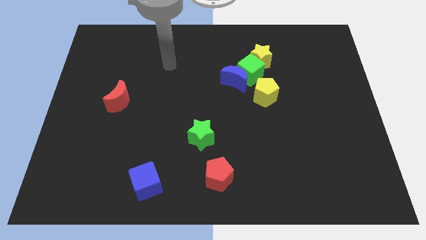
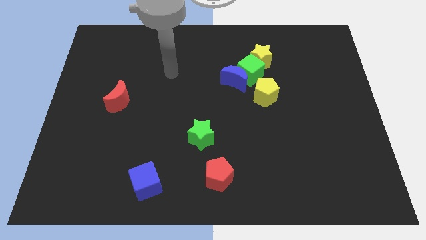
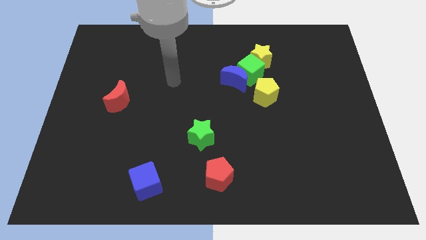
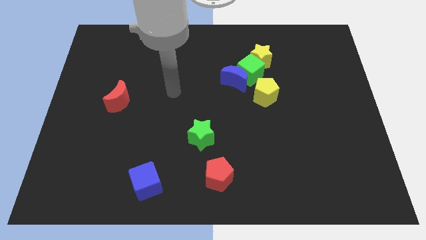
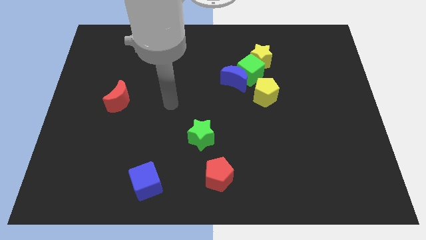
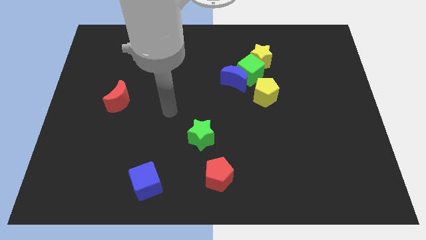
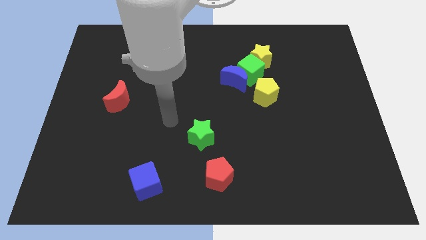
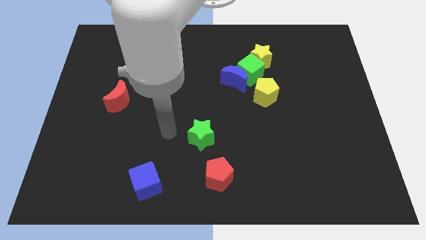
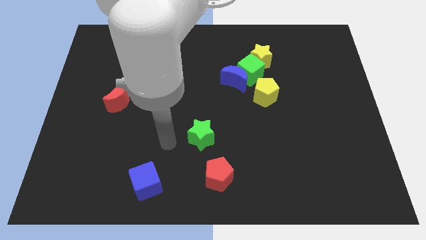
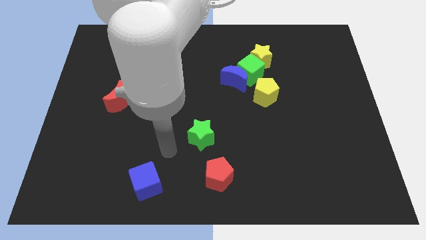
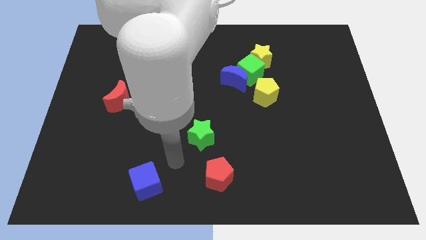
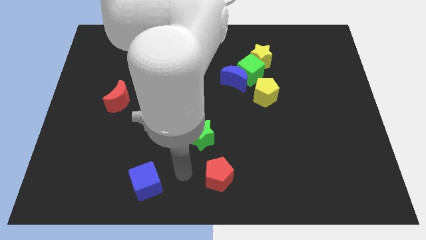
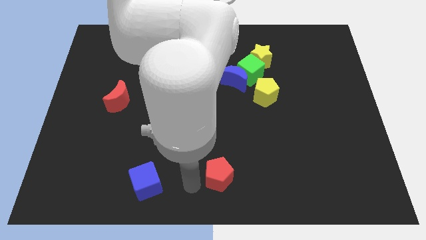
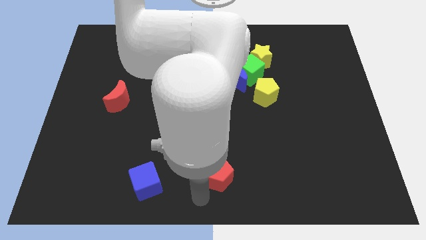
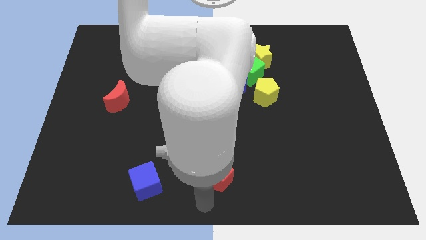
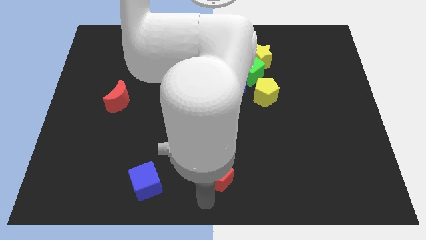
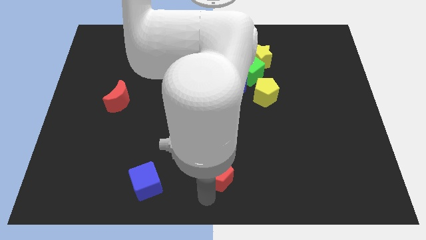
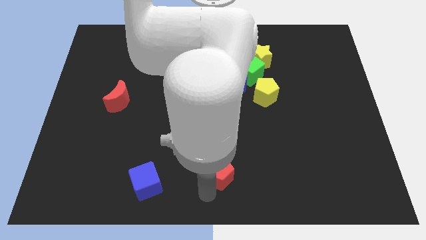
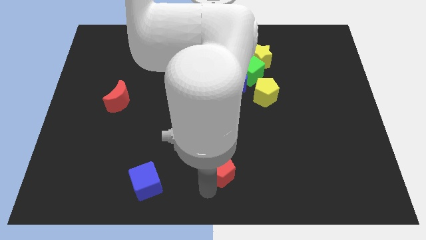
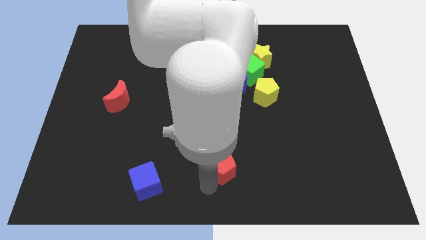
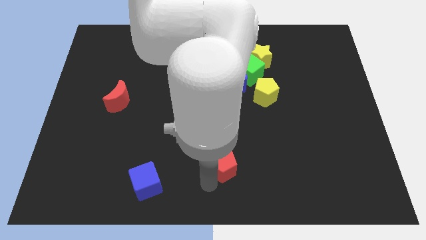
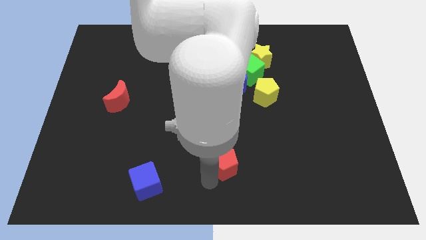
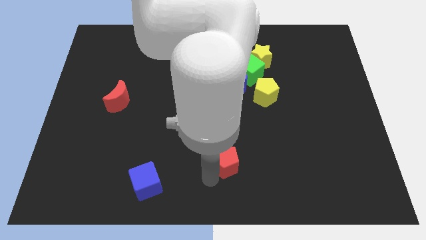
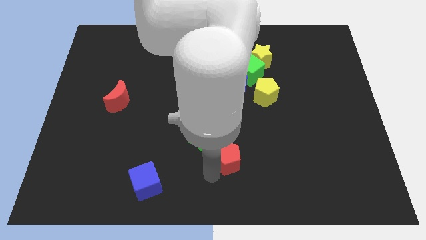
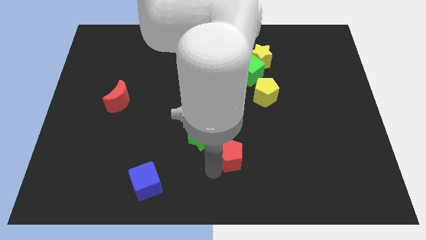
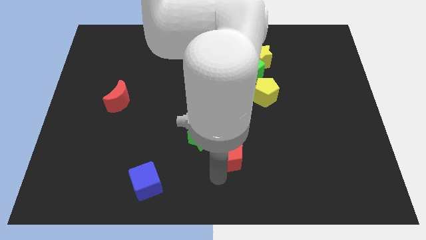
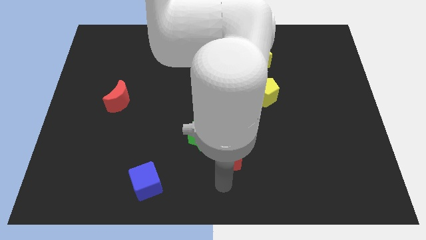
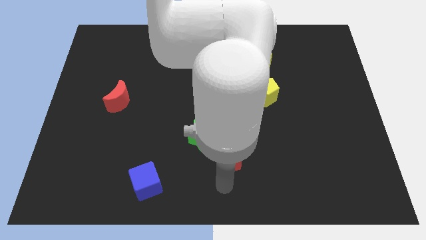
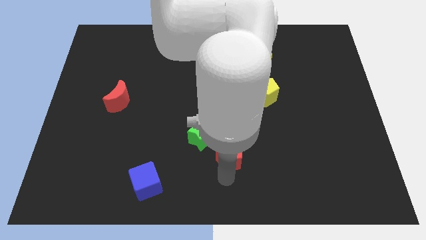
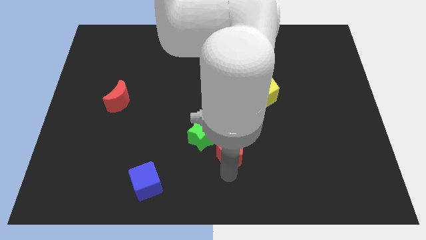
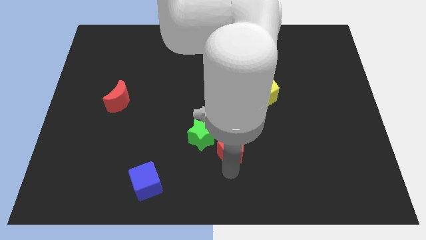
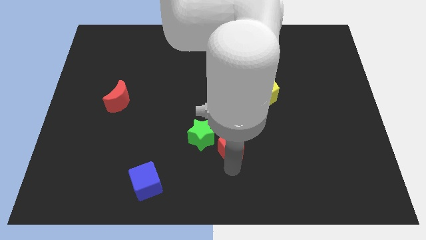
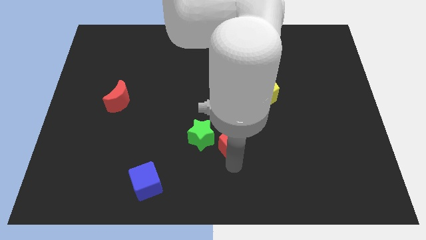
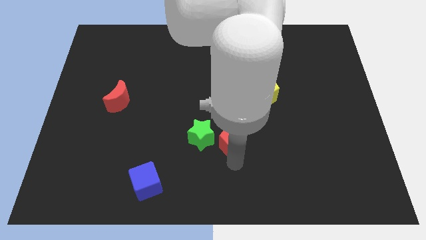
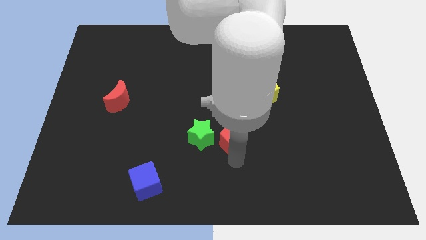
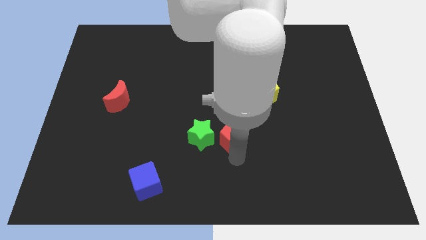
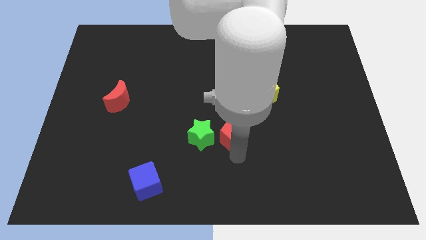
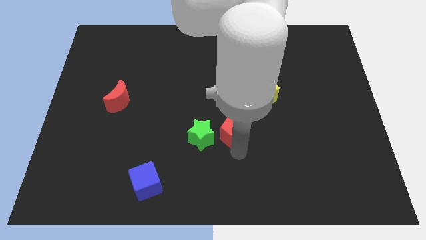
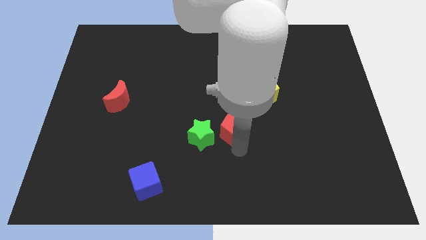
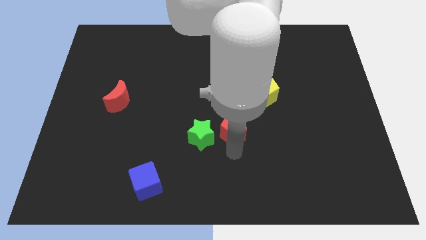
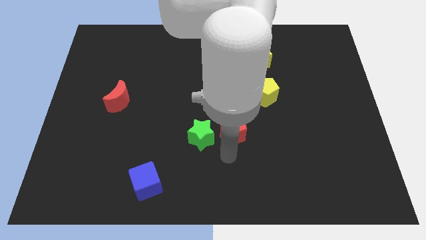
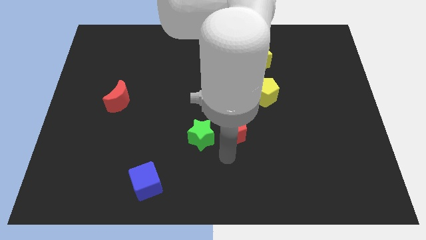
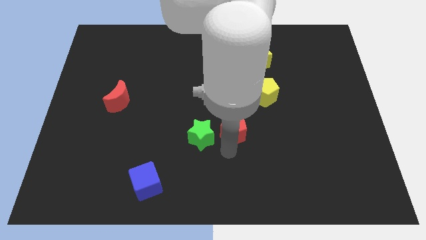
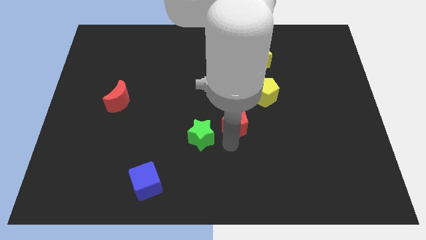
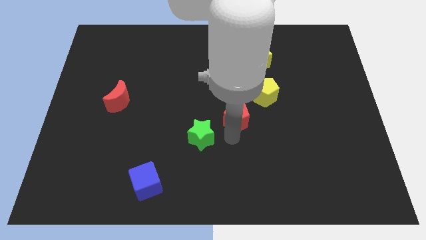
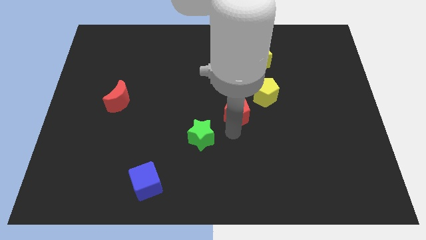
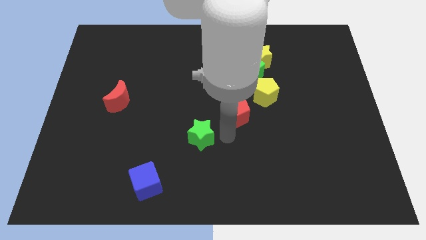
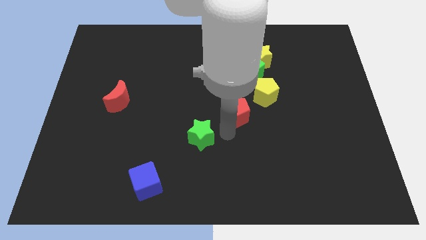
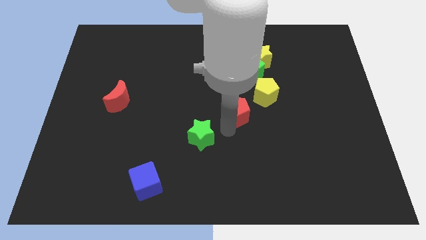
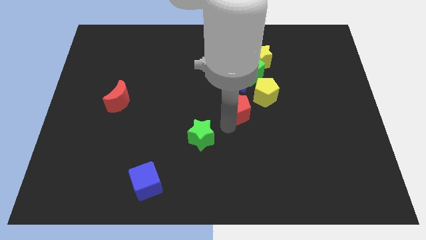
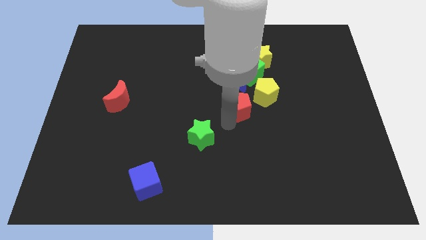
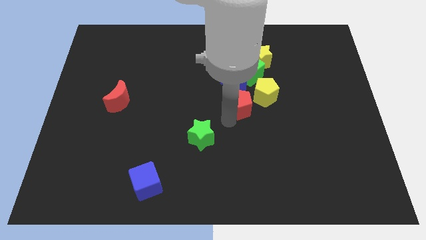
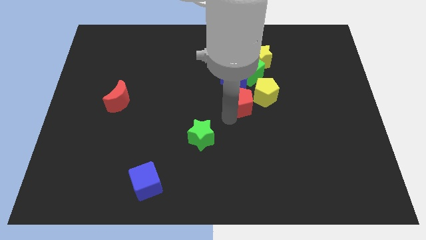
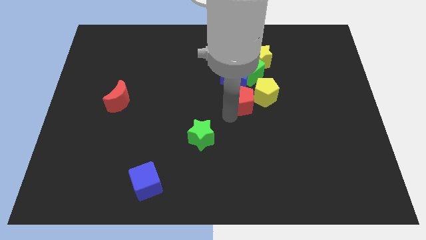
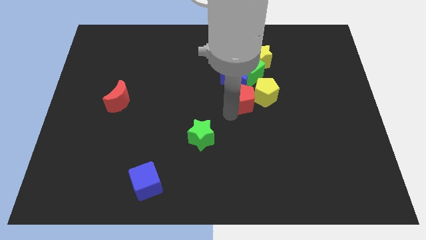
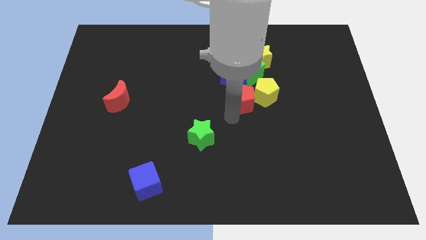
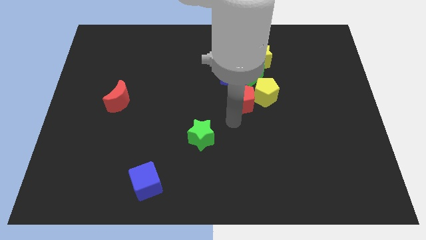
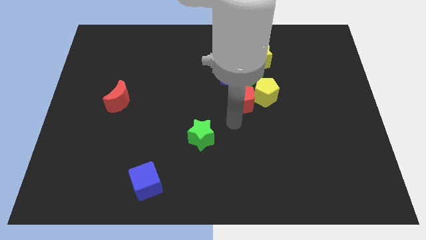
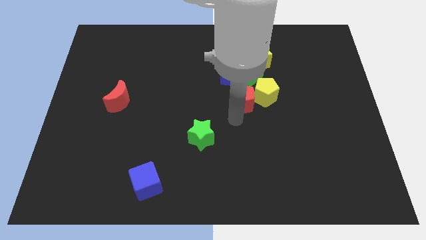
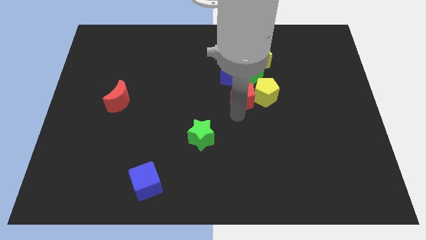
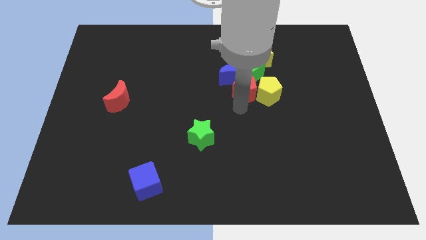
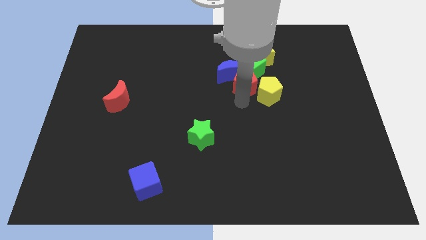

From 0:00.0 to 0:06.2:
put the red pentagon close to the green cube

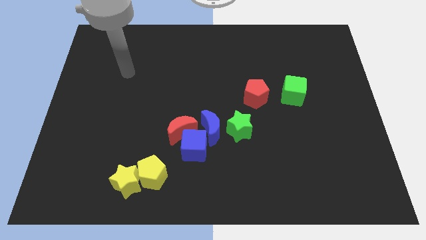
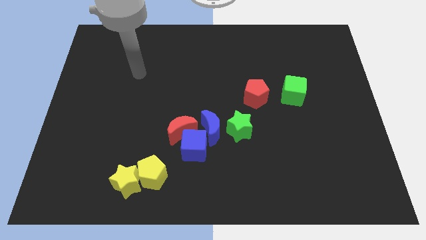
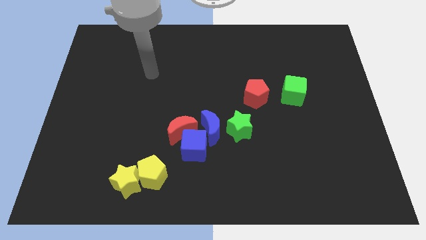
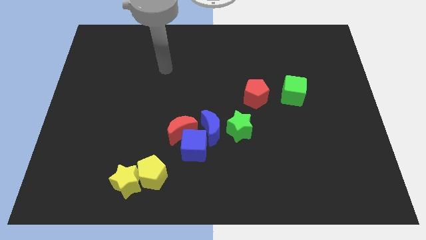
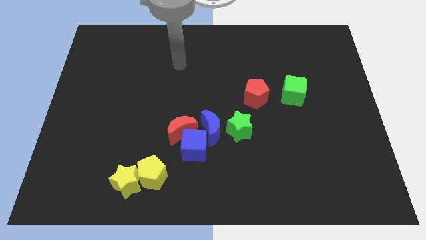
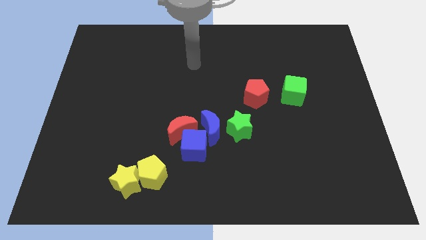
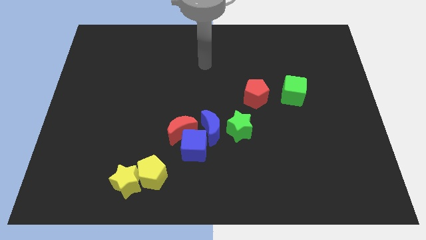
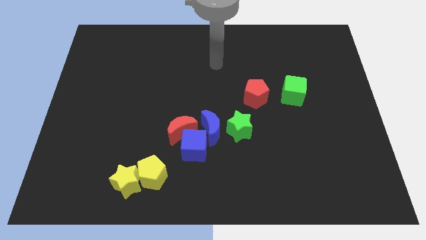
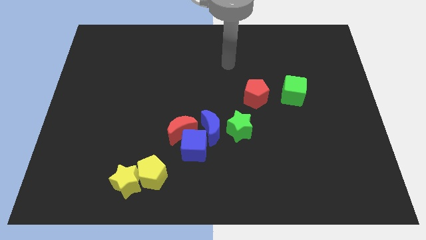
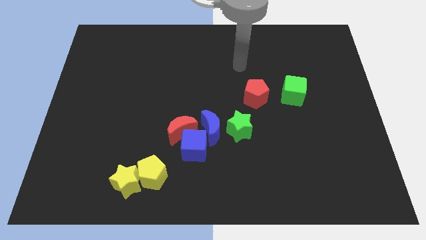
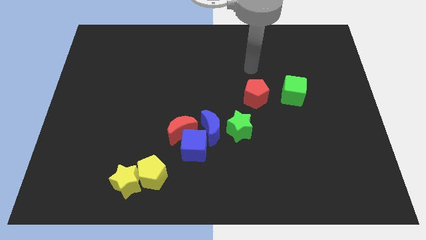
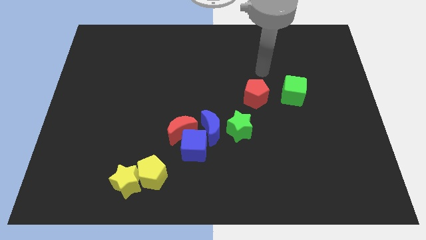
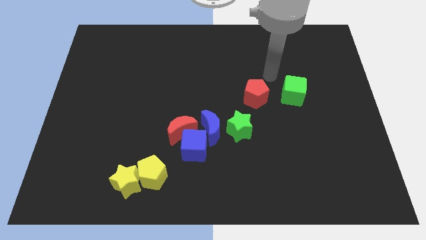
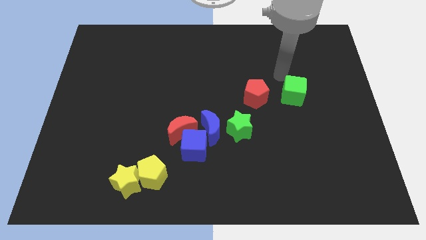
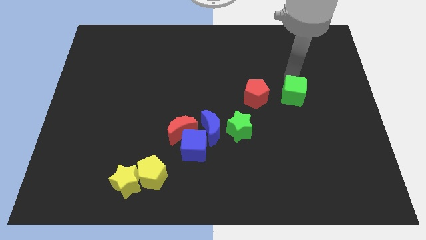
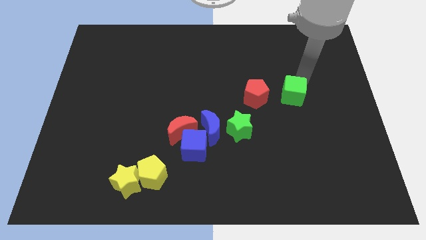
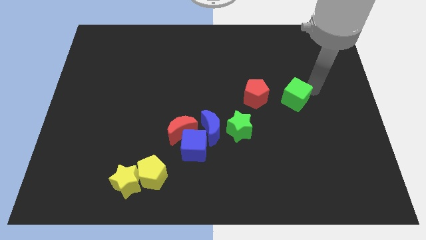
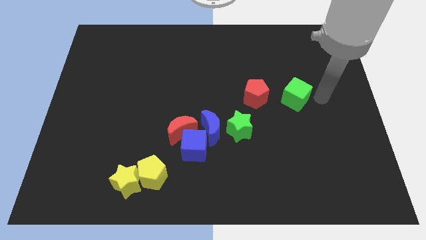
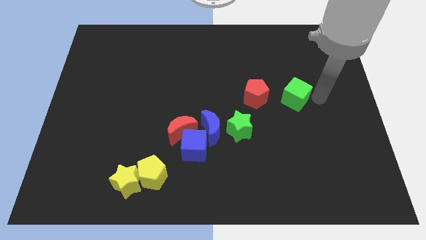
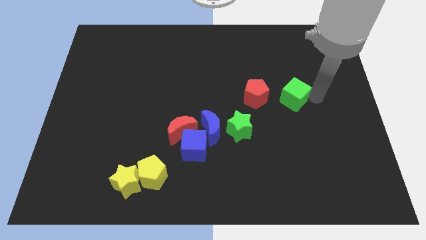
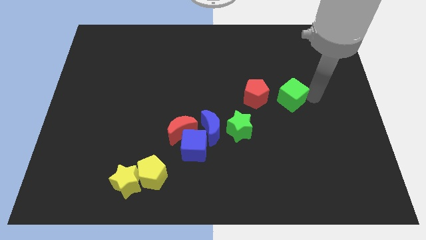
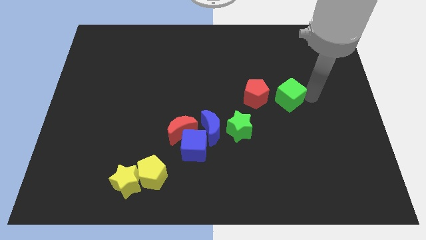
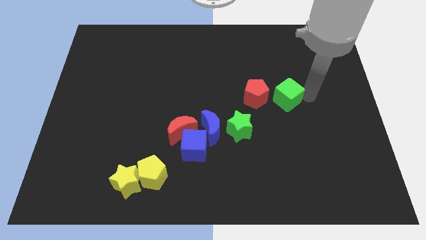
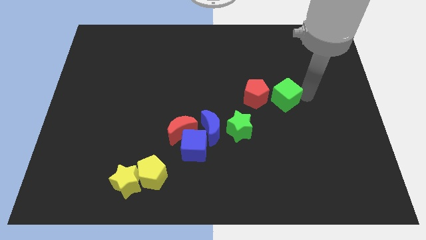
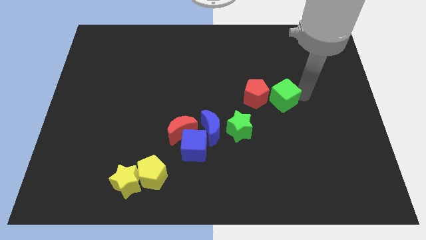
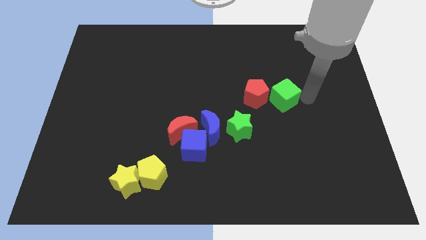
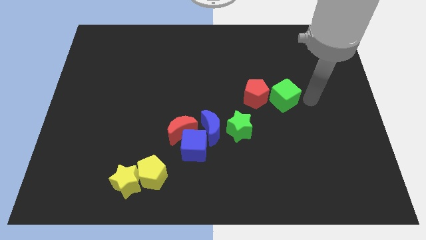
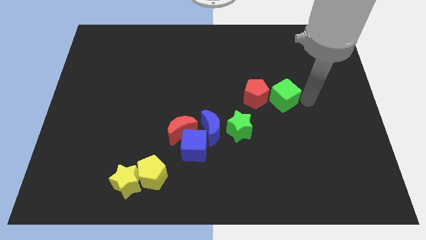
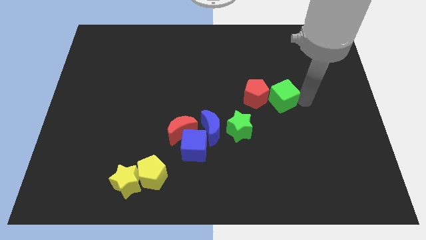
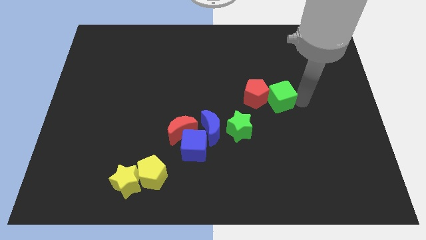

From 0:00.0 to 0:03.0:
slide the green cube to the red pentagon
